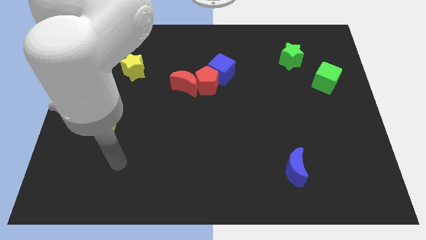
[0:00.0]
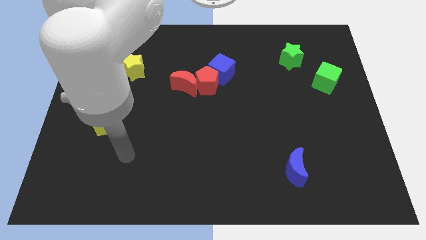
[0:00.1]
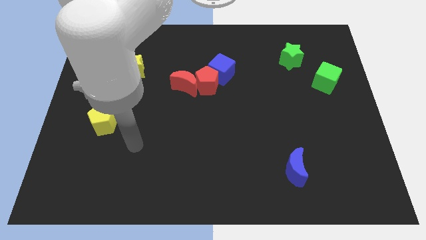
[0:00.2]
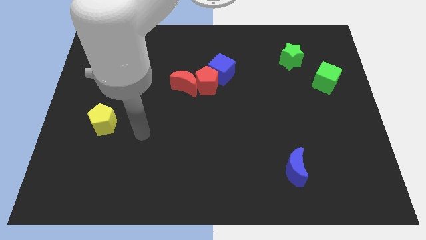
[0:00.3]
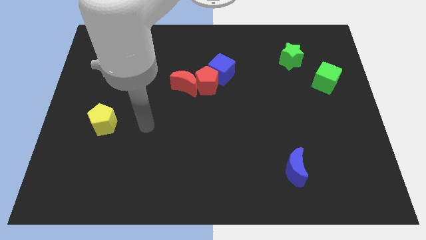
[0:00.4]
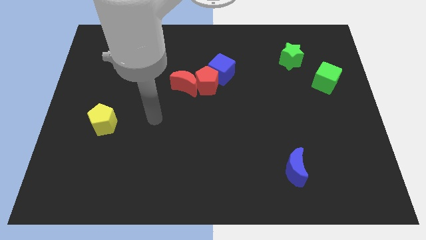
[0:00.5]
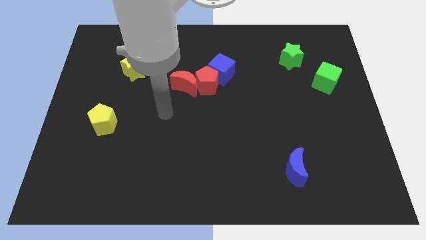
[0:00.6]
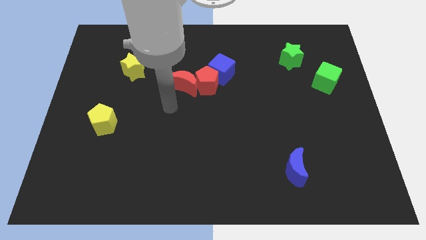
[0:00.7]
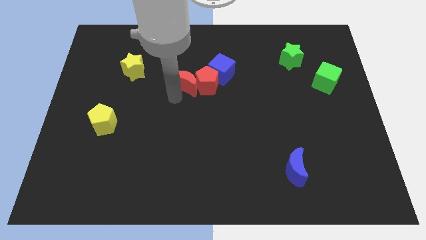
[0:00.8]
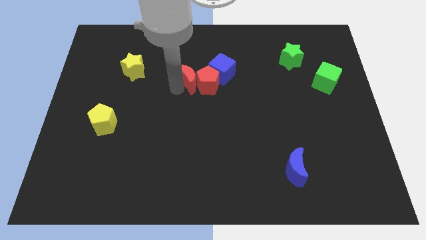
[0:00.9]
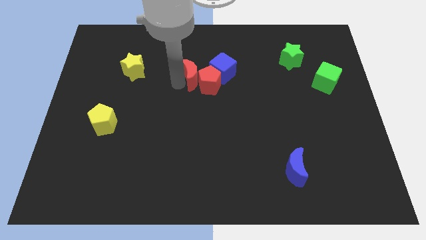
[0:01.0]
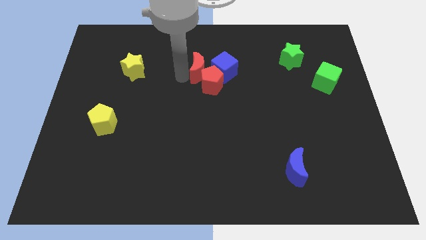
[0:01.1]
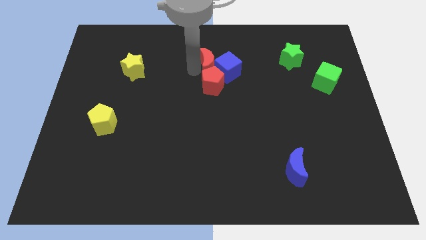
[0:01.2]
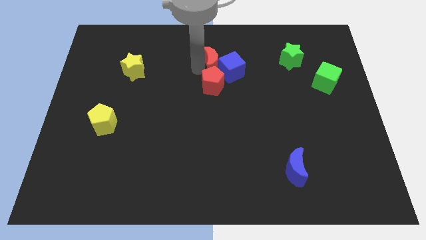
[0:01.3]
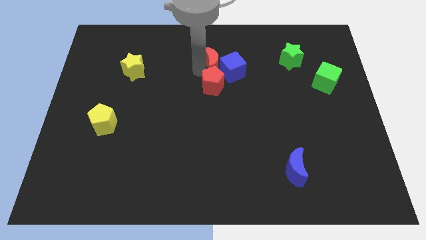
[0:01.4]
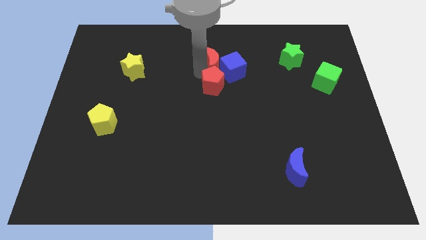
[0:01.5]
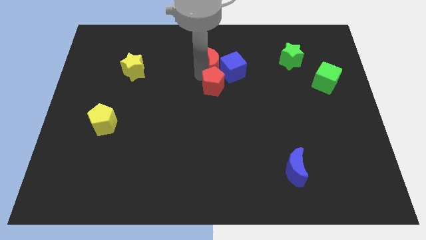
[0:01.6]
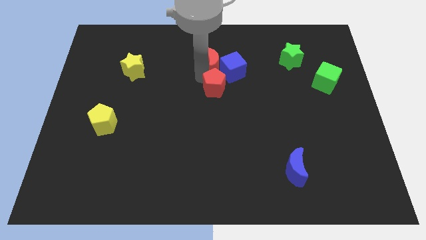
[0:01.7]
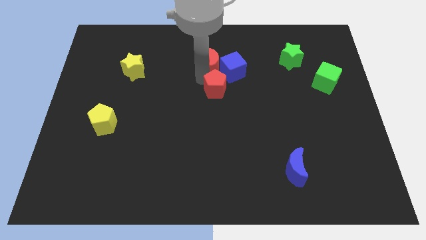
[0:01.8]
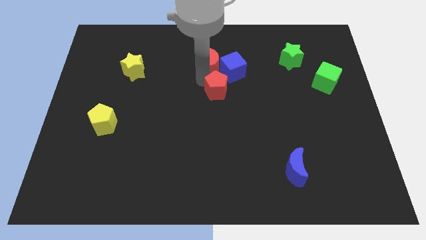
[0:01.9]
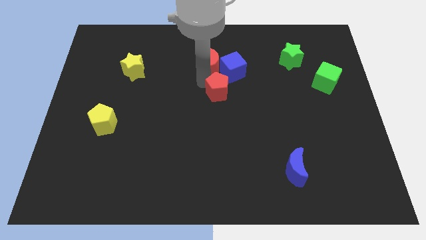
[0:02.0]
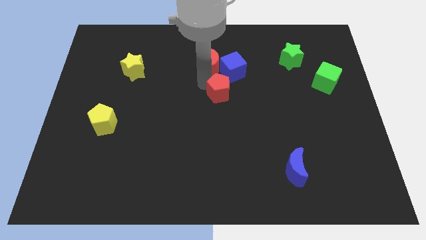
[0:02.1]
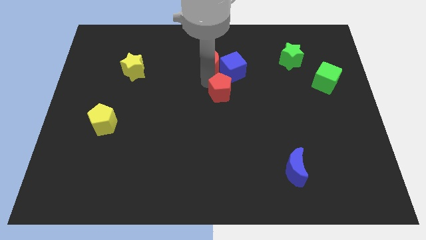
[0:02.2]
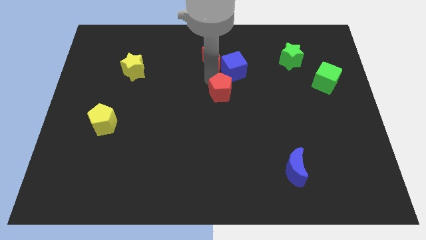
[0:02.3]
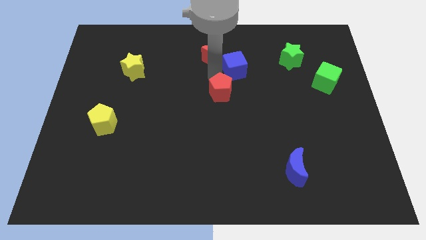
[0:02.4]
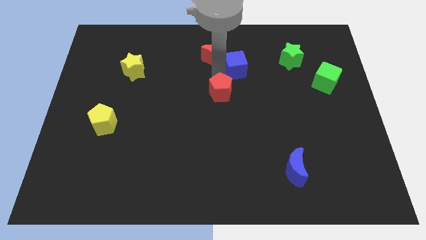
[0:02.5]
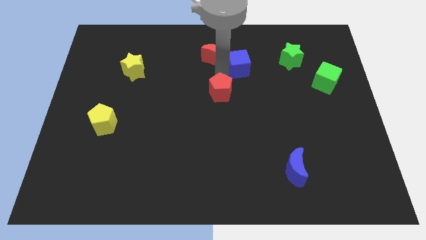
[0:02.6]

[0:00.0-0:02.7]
move the red pentagon away from the red moon and blue cube

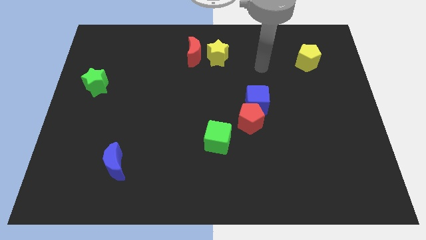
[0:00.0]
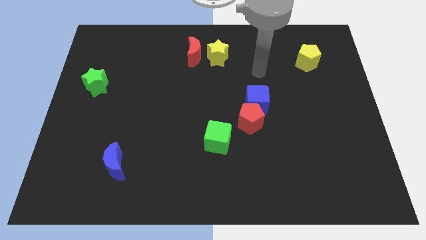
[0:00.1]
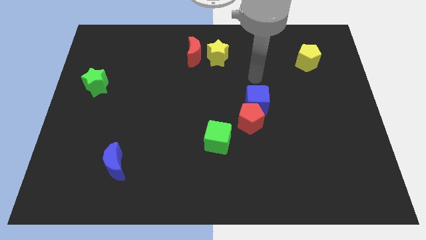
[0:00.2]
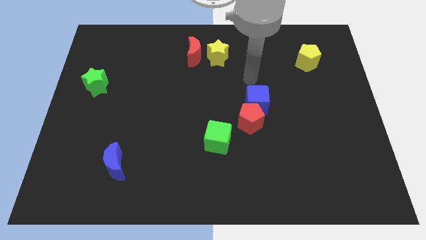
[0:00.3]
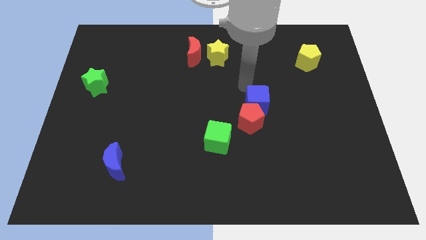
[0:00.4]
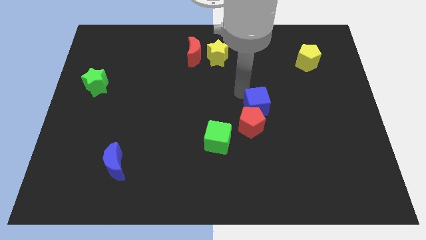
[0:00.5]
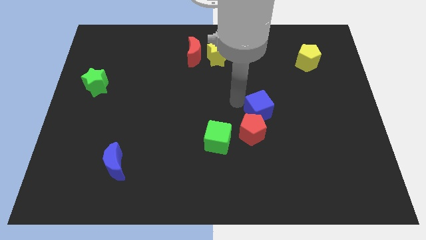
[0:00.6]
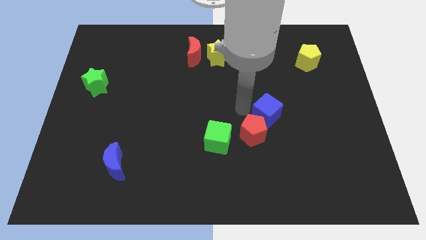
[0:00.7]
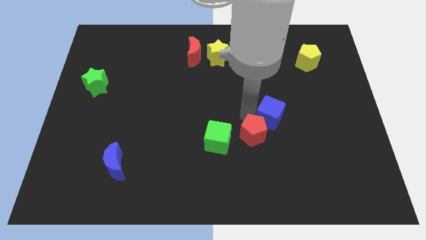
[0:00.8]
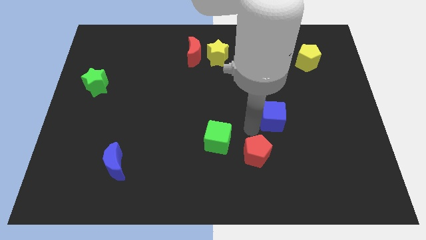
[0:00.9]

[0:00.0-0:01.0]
separate the blue cube from the red pentagon

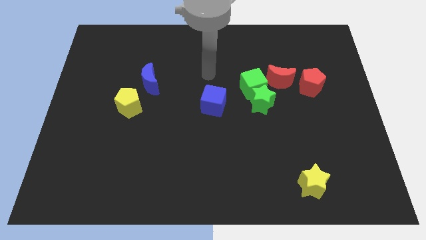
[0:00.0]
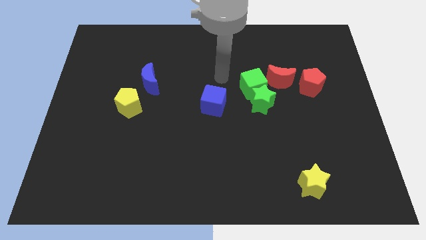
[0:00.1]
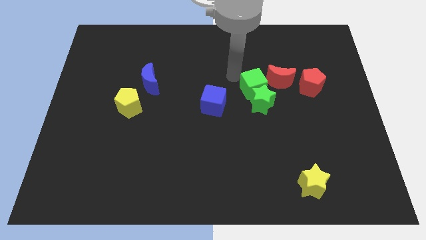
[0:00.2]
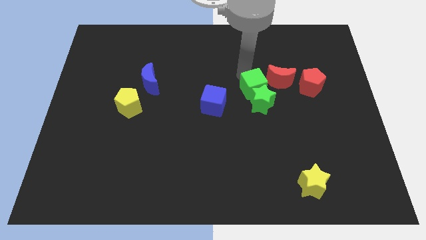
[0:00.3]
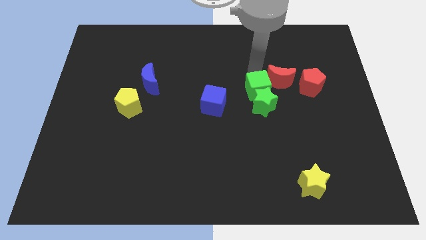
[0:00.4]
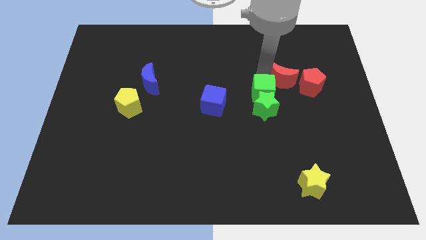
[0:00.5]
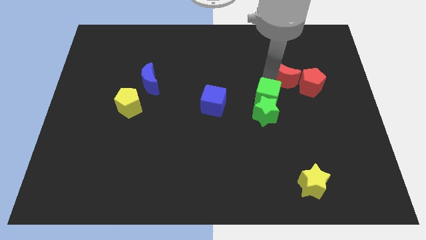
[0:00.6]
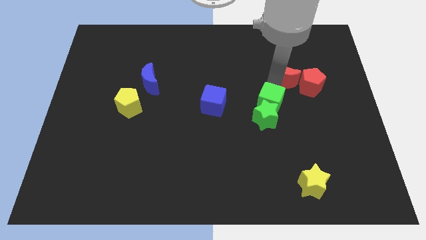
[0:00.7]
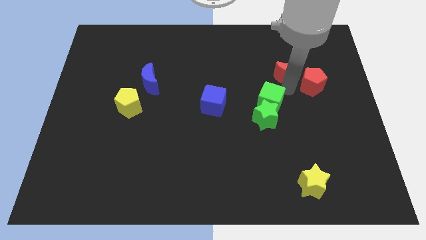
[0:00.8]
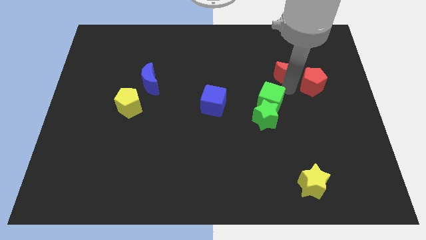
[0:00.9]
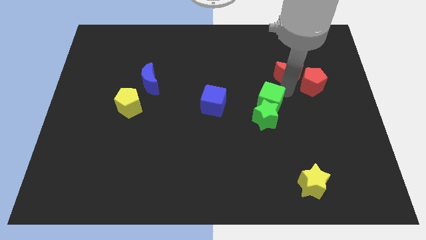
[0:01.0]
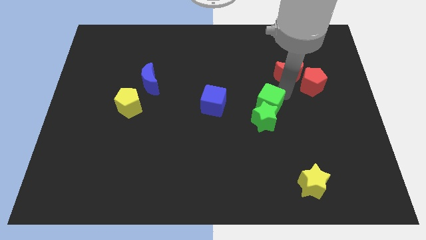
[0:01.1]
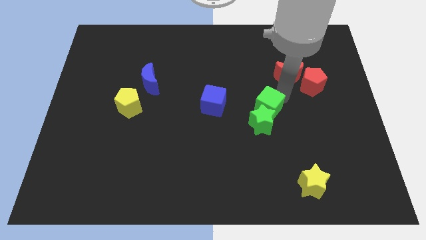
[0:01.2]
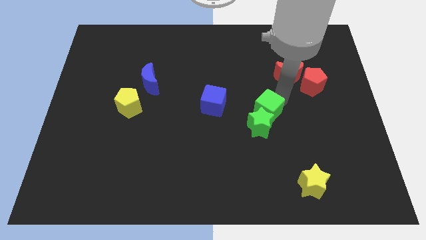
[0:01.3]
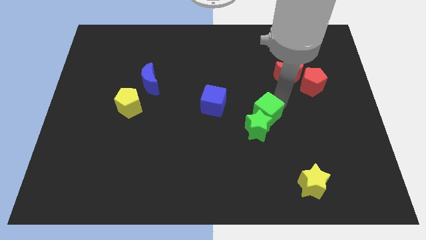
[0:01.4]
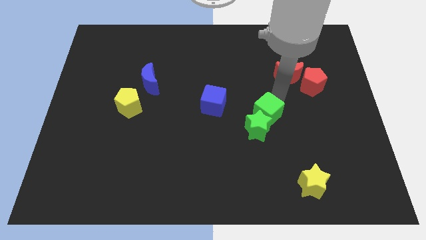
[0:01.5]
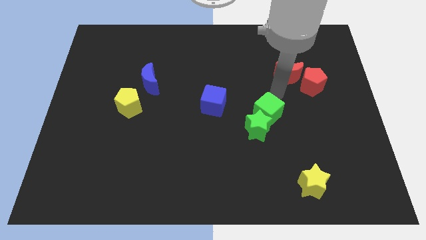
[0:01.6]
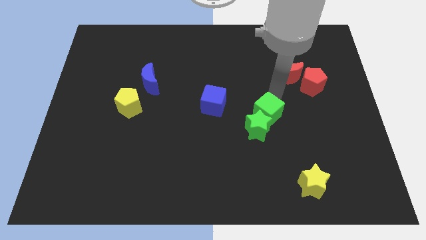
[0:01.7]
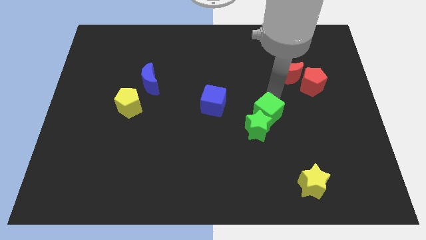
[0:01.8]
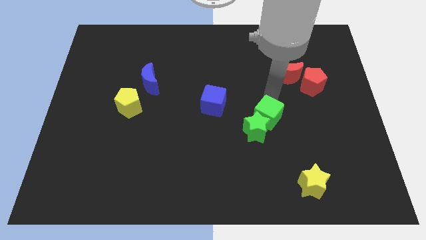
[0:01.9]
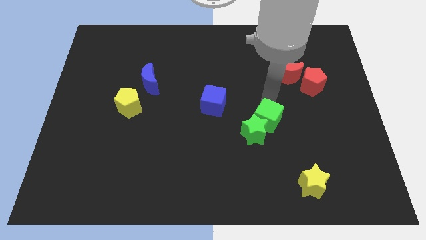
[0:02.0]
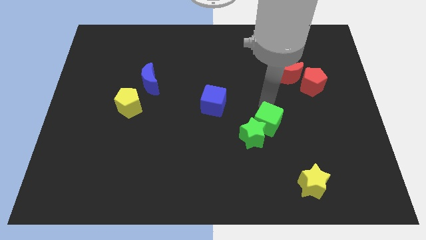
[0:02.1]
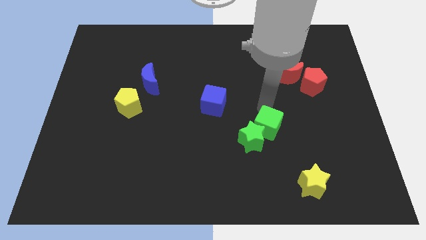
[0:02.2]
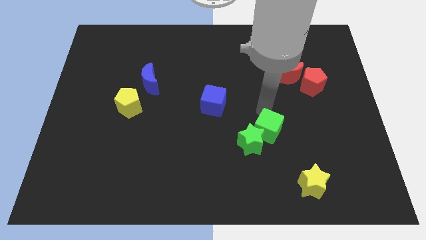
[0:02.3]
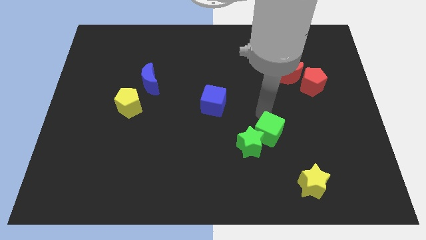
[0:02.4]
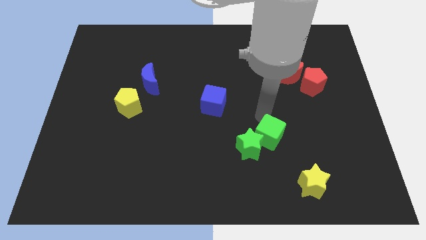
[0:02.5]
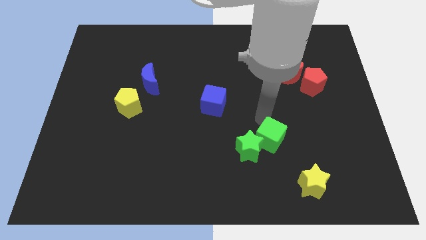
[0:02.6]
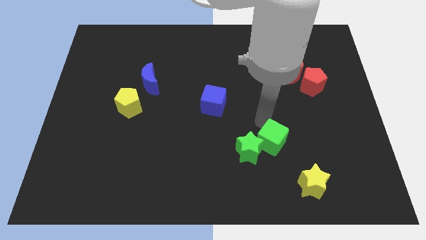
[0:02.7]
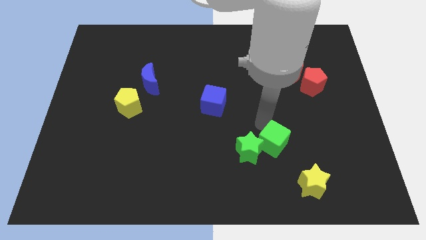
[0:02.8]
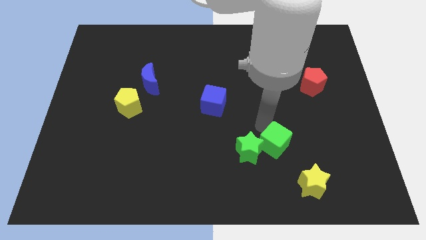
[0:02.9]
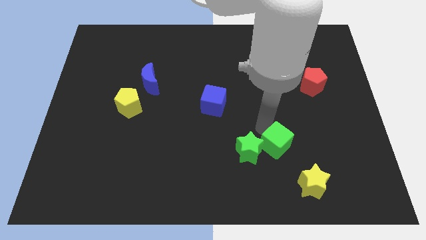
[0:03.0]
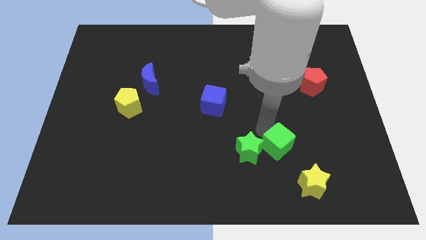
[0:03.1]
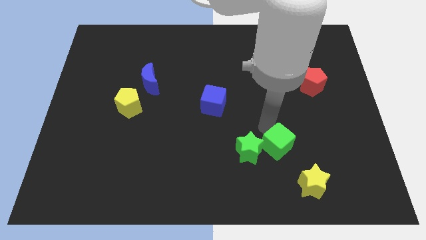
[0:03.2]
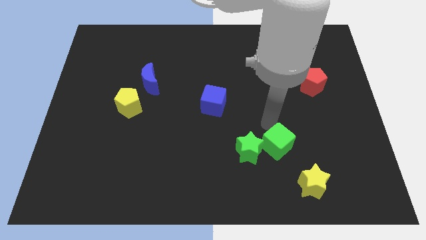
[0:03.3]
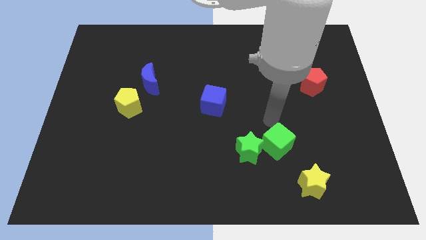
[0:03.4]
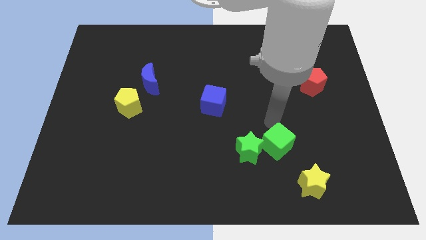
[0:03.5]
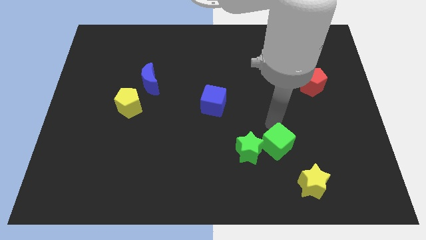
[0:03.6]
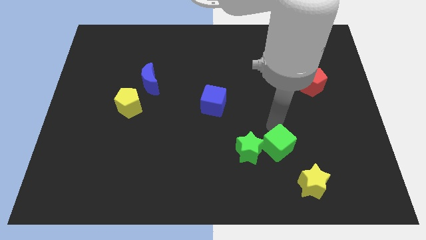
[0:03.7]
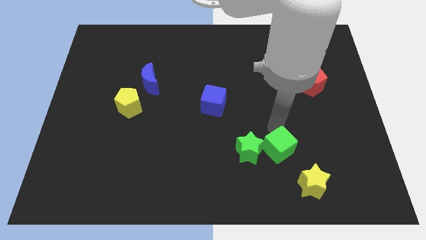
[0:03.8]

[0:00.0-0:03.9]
move the green cube away from the green star and red moon

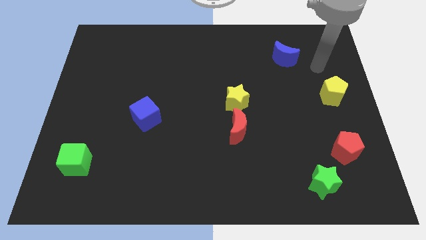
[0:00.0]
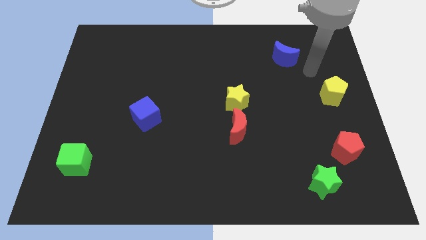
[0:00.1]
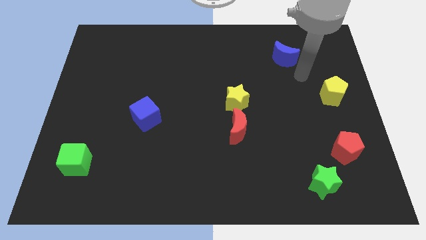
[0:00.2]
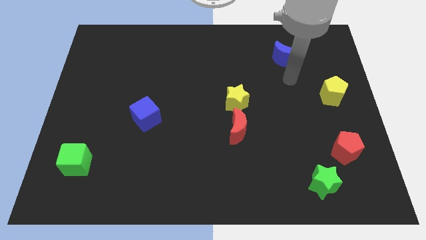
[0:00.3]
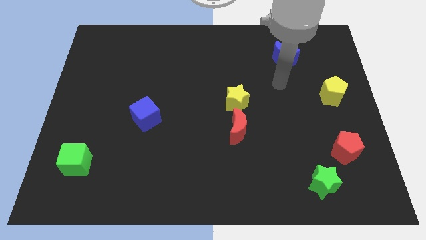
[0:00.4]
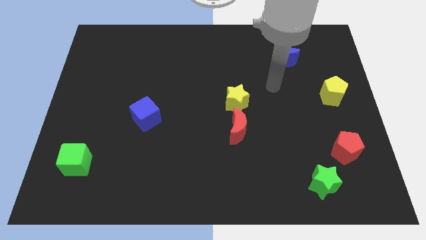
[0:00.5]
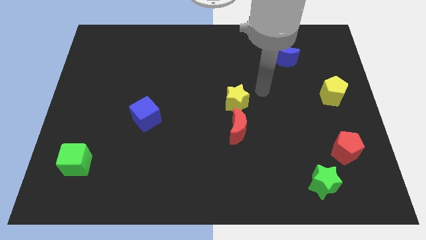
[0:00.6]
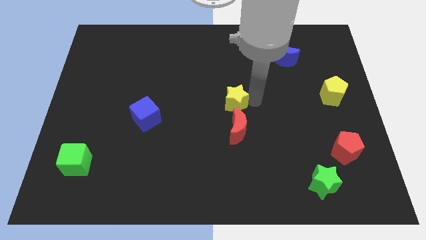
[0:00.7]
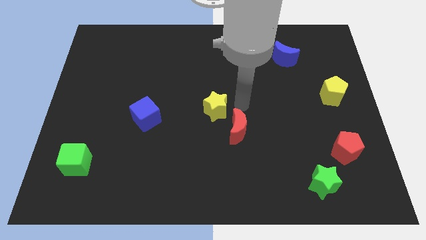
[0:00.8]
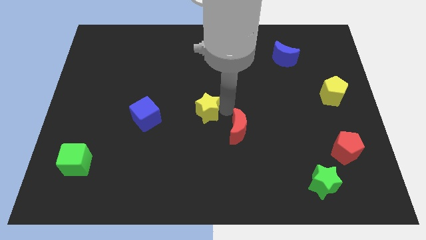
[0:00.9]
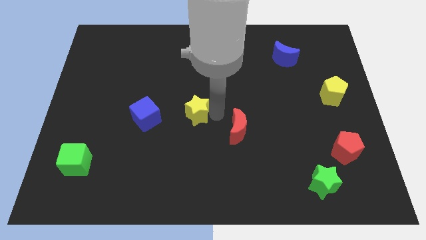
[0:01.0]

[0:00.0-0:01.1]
move the red moon away from the yellow star

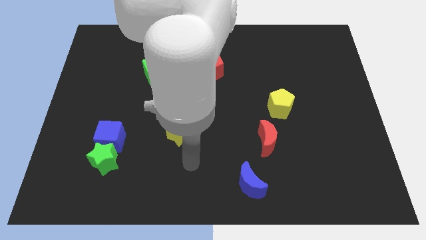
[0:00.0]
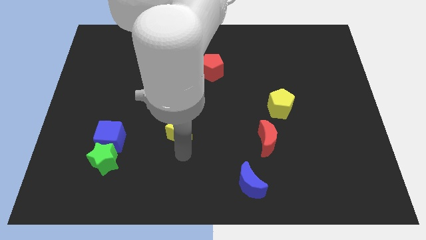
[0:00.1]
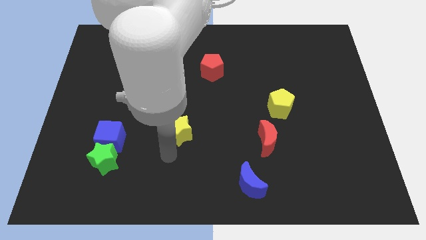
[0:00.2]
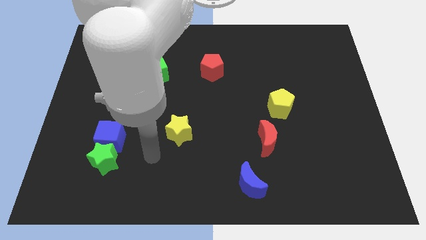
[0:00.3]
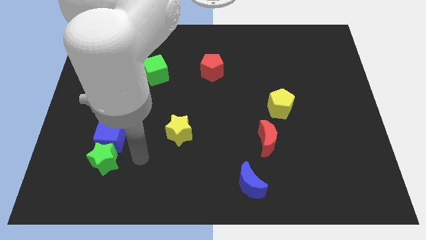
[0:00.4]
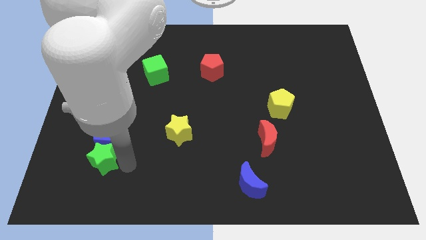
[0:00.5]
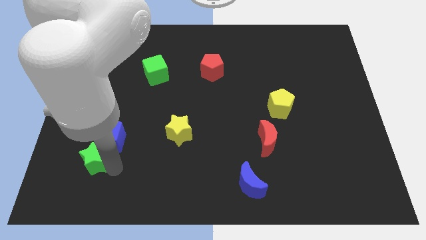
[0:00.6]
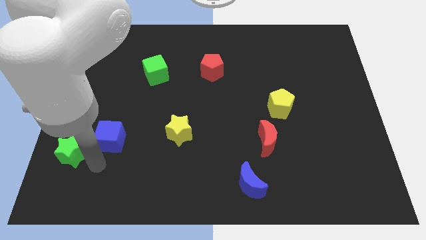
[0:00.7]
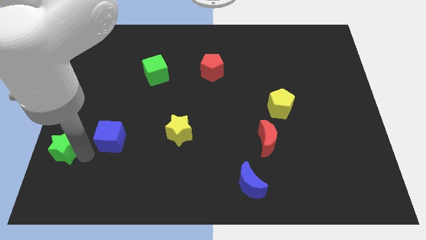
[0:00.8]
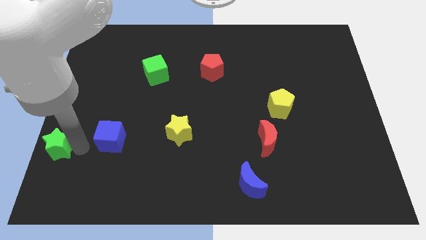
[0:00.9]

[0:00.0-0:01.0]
pull the blue cube apart from the green star
